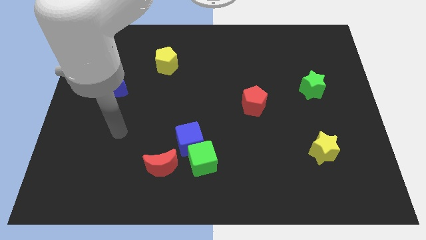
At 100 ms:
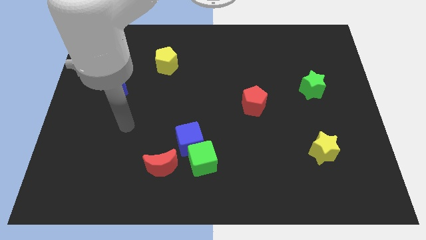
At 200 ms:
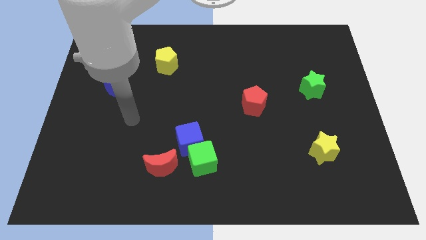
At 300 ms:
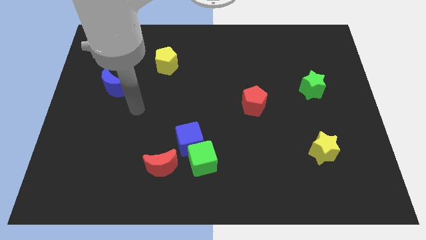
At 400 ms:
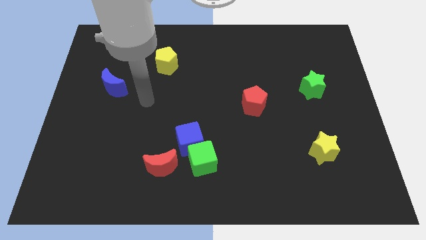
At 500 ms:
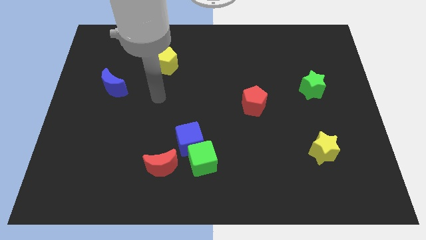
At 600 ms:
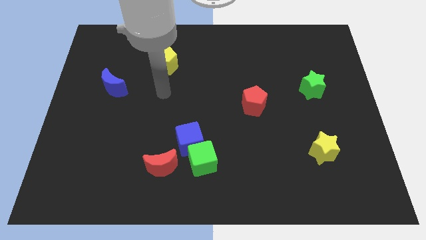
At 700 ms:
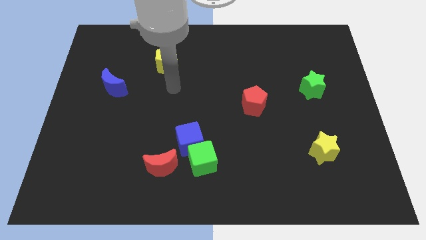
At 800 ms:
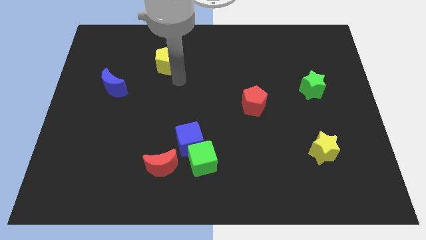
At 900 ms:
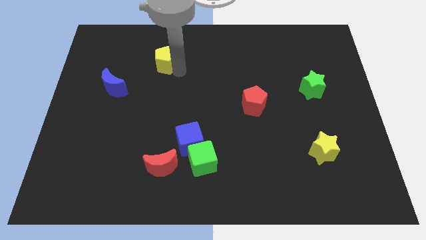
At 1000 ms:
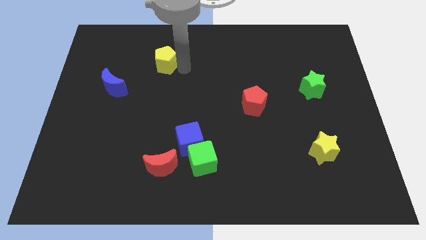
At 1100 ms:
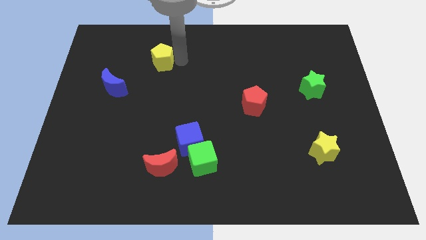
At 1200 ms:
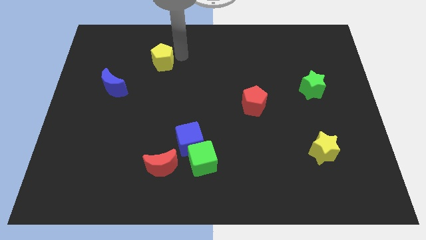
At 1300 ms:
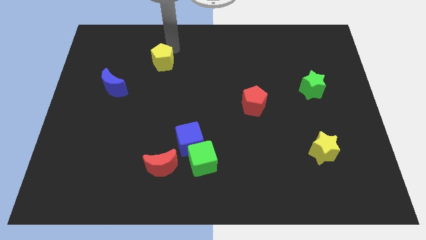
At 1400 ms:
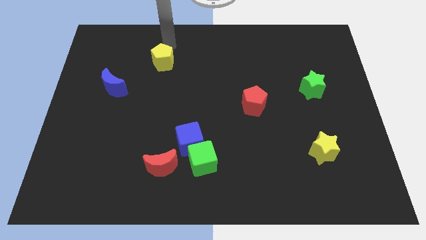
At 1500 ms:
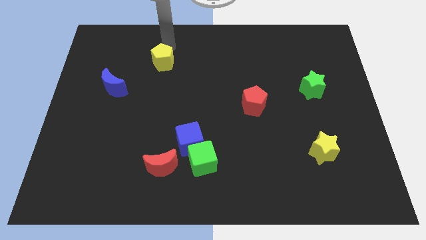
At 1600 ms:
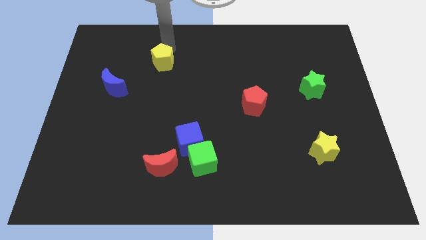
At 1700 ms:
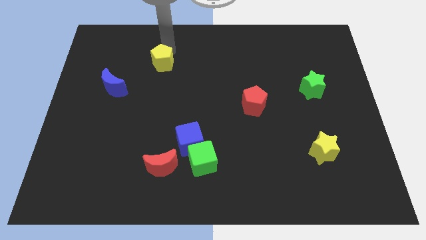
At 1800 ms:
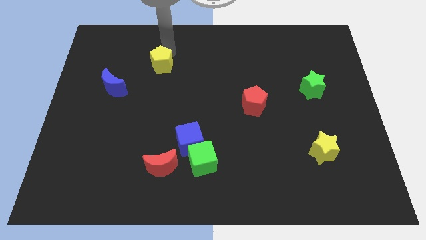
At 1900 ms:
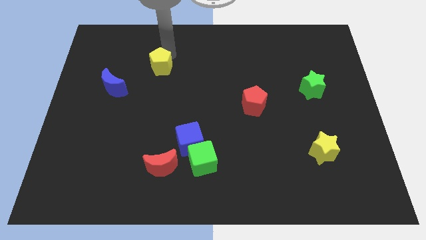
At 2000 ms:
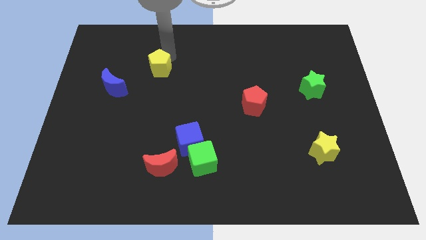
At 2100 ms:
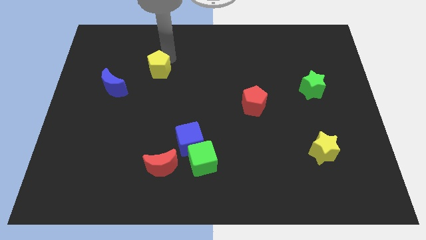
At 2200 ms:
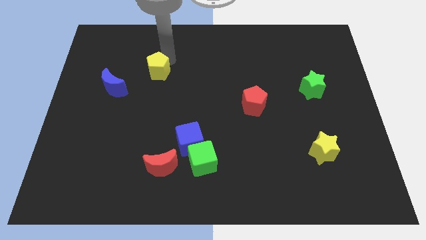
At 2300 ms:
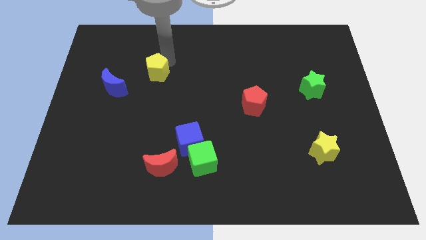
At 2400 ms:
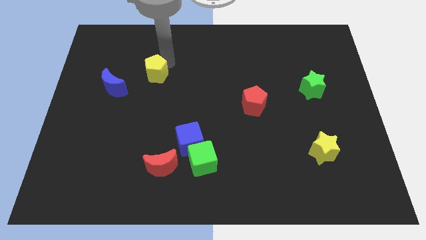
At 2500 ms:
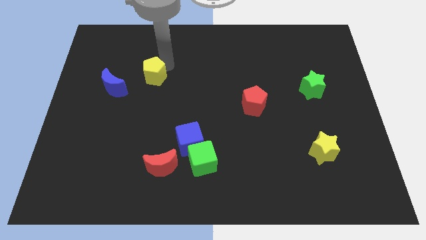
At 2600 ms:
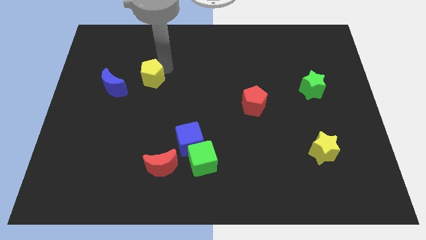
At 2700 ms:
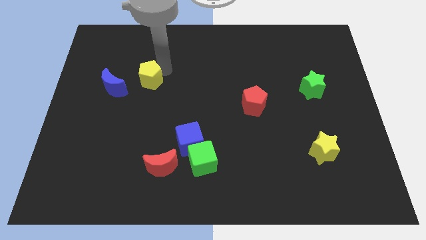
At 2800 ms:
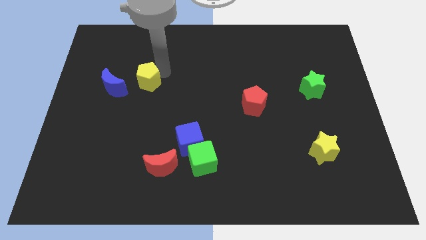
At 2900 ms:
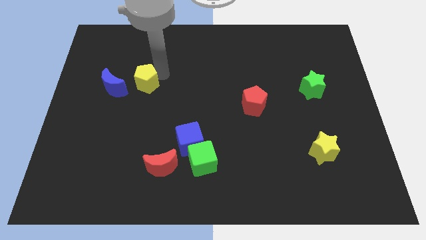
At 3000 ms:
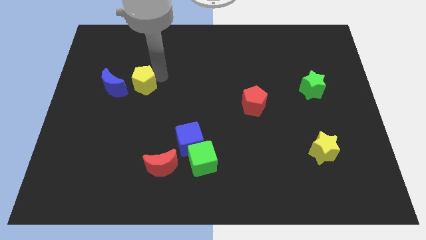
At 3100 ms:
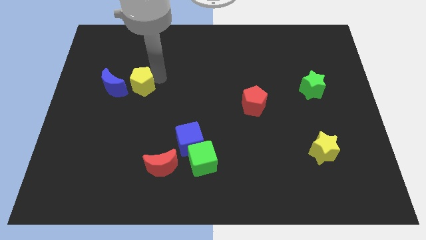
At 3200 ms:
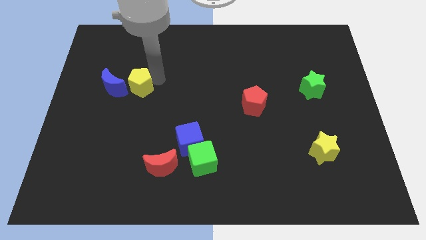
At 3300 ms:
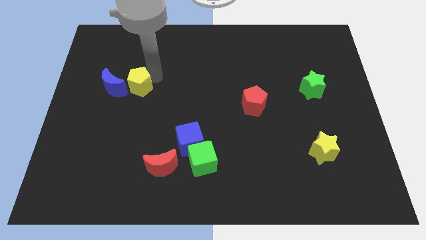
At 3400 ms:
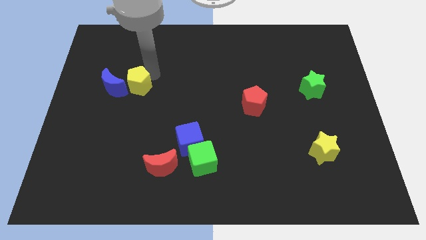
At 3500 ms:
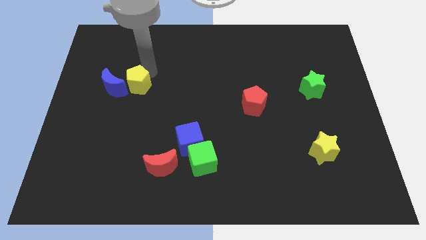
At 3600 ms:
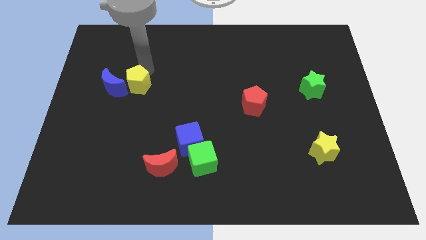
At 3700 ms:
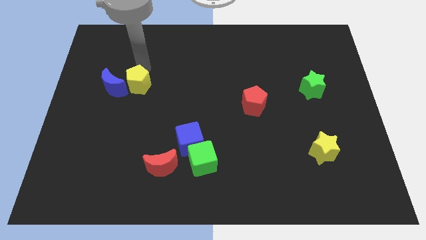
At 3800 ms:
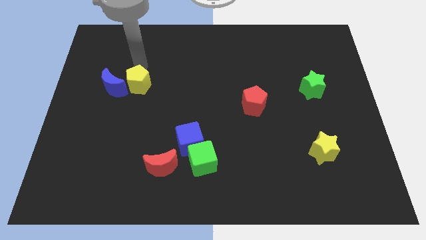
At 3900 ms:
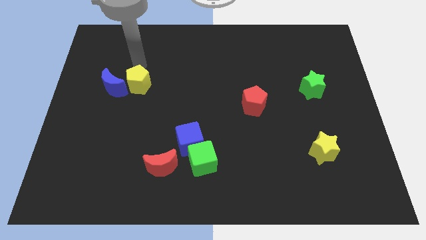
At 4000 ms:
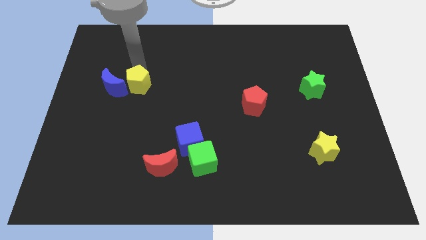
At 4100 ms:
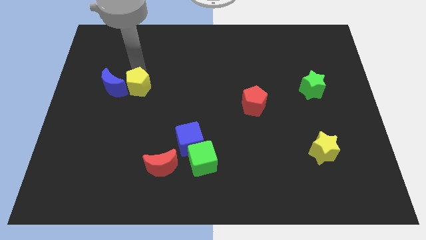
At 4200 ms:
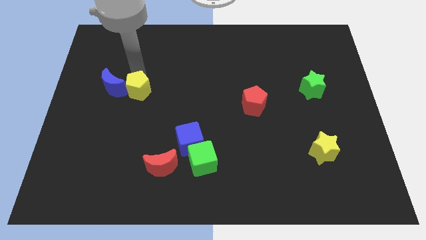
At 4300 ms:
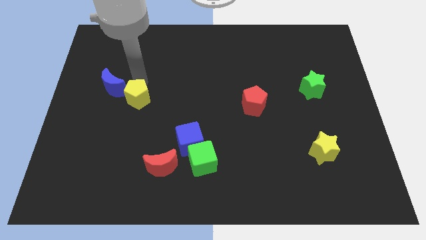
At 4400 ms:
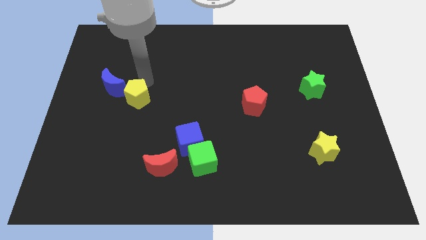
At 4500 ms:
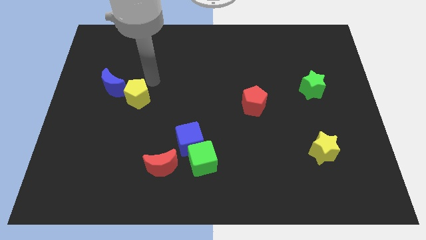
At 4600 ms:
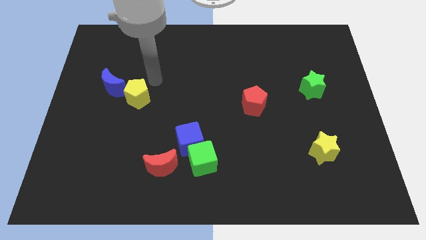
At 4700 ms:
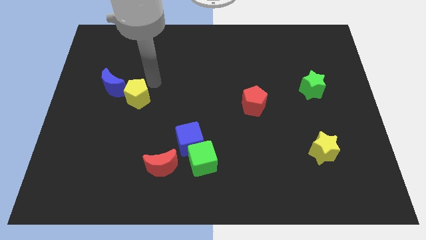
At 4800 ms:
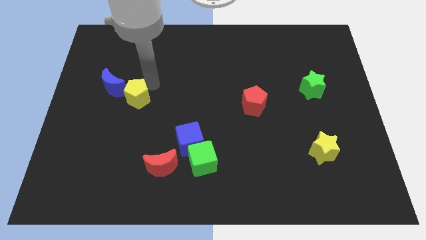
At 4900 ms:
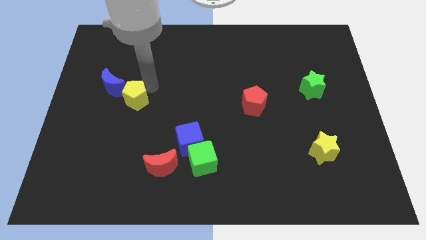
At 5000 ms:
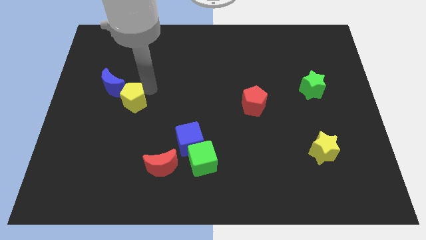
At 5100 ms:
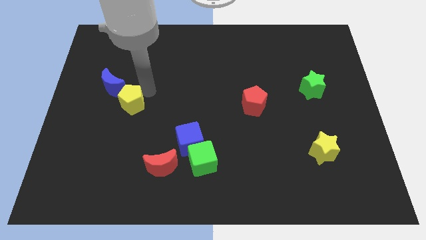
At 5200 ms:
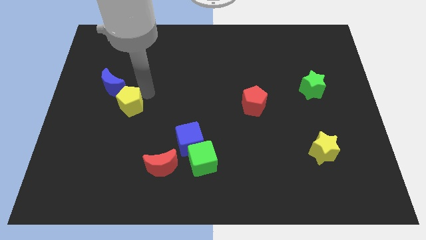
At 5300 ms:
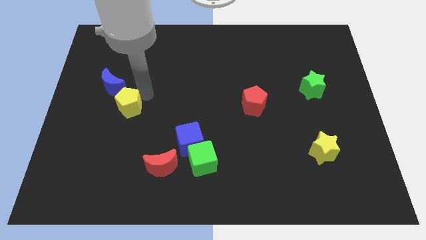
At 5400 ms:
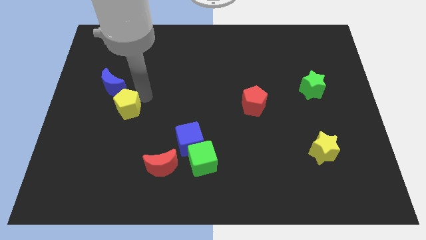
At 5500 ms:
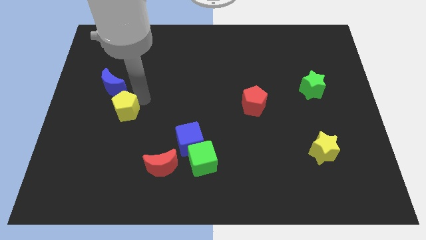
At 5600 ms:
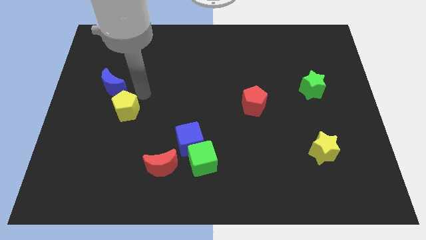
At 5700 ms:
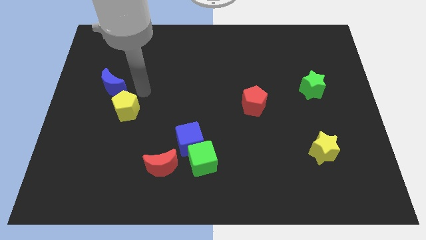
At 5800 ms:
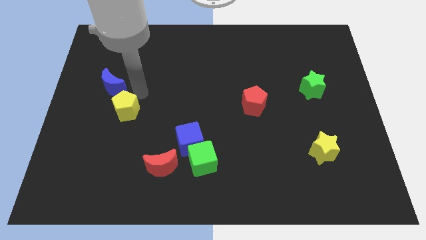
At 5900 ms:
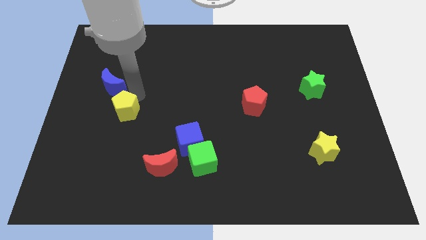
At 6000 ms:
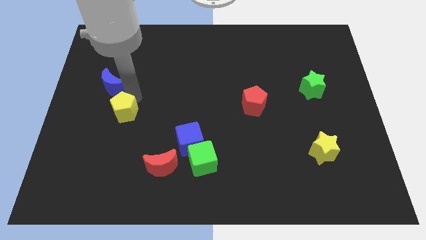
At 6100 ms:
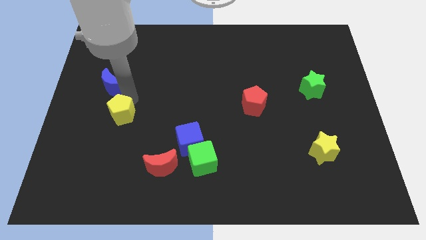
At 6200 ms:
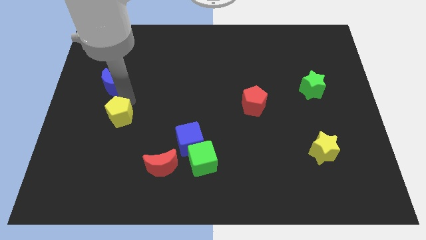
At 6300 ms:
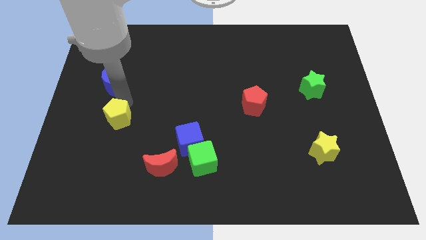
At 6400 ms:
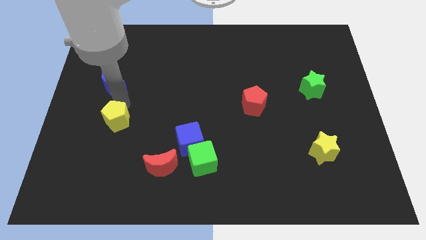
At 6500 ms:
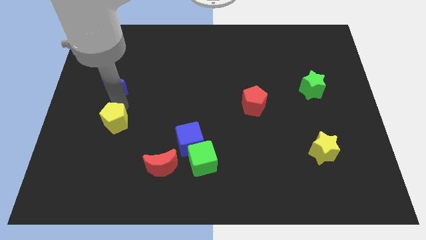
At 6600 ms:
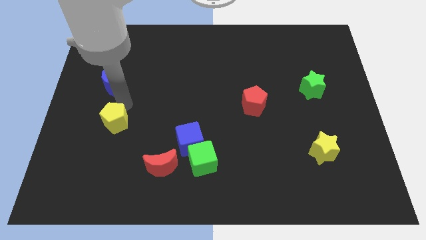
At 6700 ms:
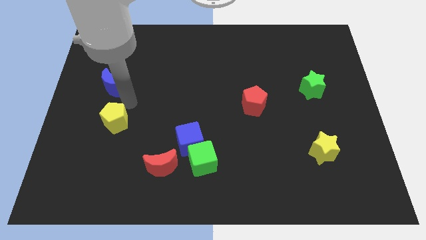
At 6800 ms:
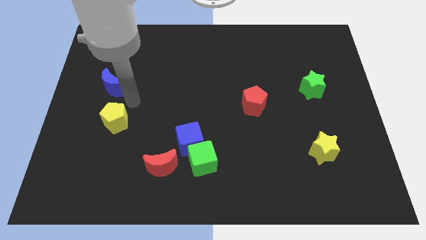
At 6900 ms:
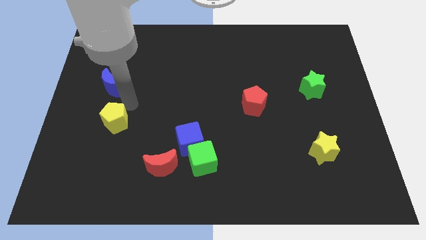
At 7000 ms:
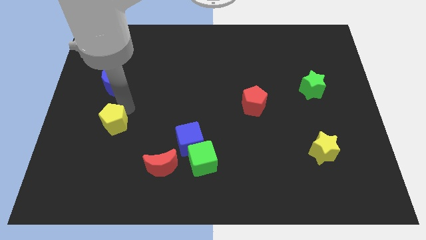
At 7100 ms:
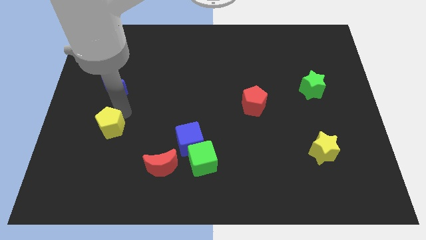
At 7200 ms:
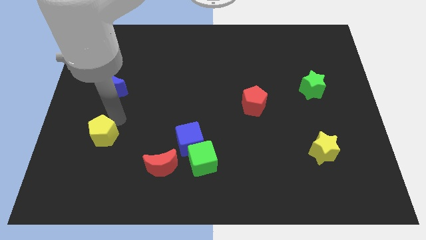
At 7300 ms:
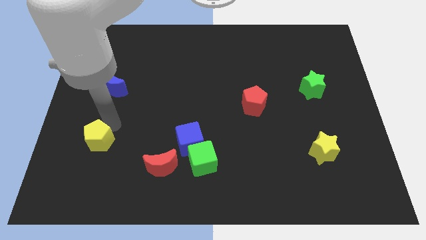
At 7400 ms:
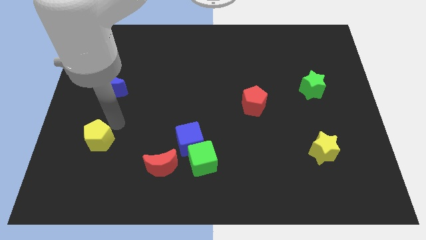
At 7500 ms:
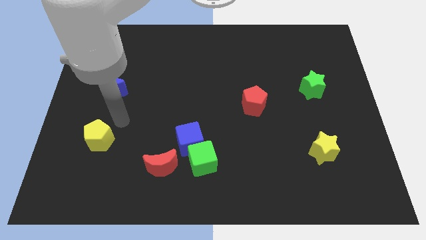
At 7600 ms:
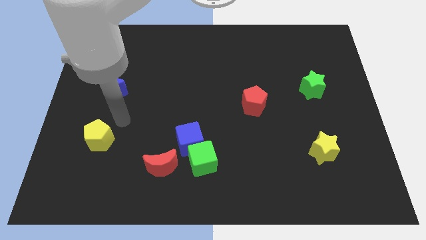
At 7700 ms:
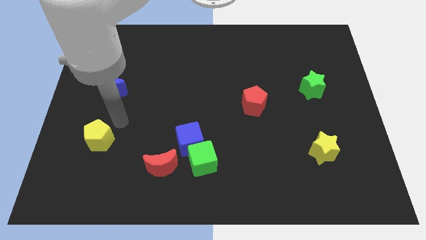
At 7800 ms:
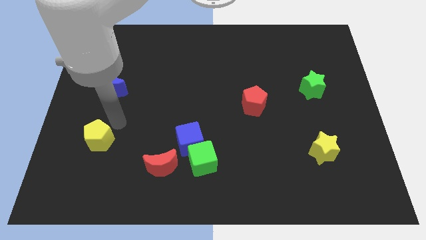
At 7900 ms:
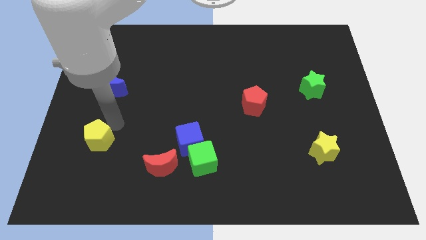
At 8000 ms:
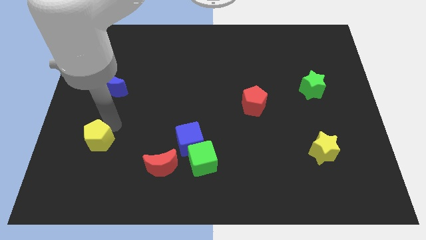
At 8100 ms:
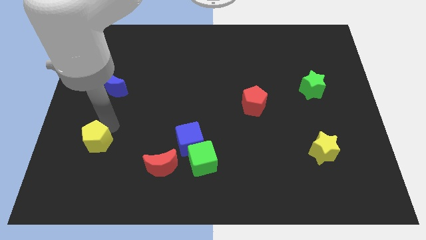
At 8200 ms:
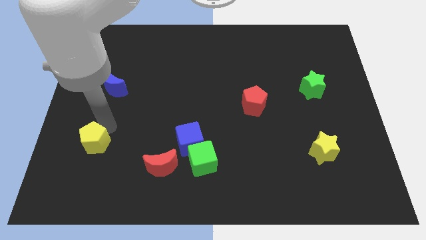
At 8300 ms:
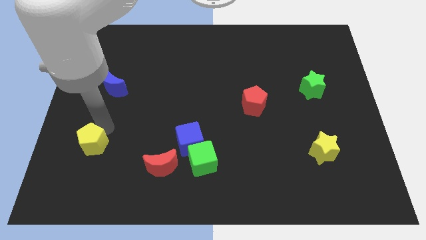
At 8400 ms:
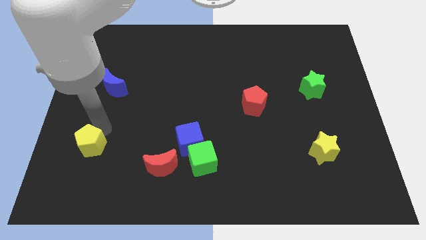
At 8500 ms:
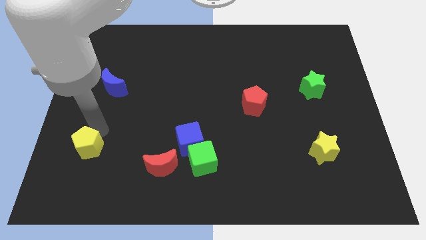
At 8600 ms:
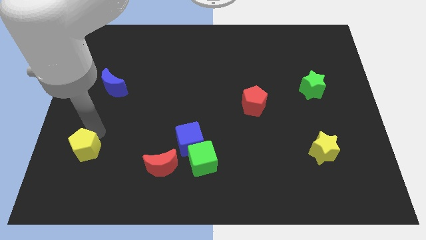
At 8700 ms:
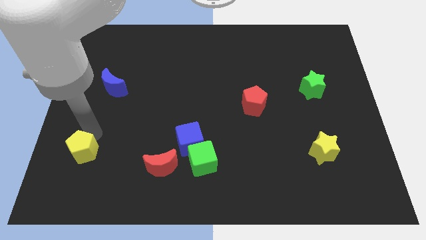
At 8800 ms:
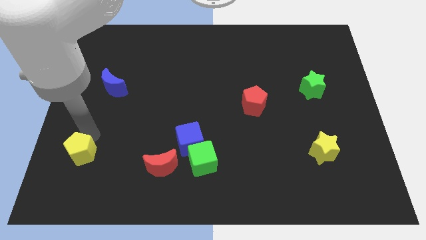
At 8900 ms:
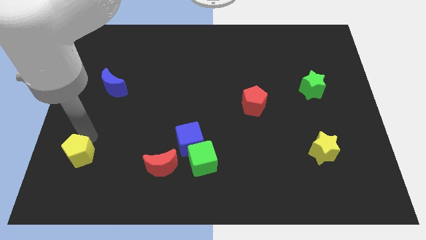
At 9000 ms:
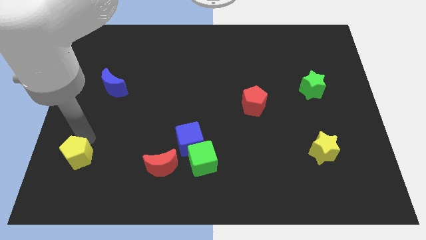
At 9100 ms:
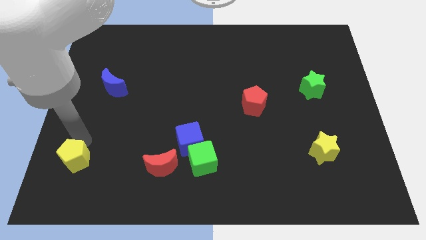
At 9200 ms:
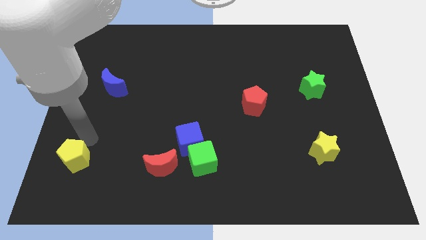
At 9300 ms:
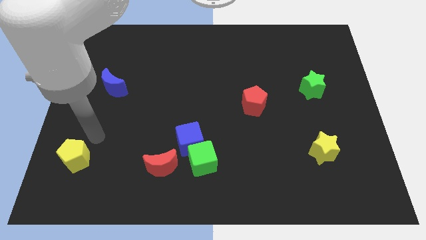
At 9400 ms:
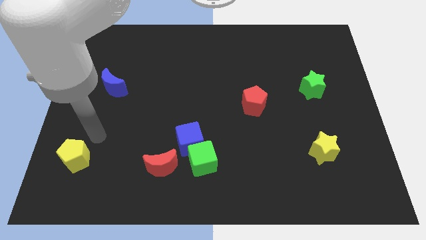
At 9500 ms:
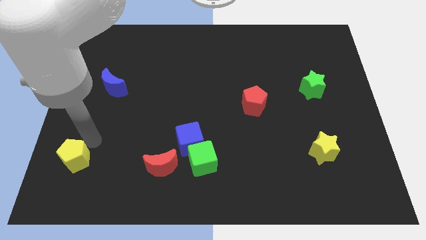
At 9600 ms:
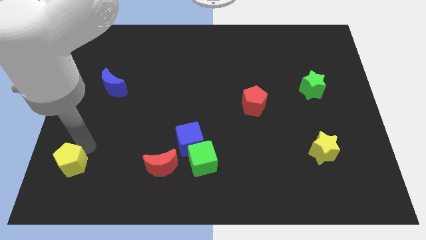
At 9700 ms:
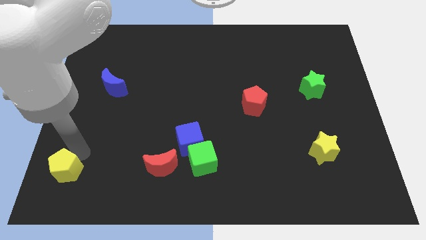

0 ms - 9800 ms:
slide the yellow pentagon to the bottom left
